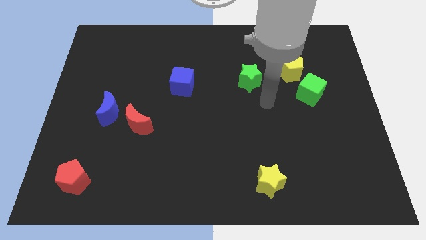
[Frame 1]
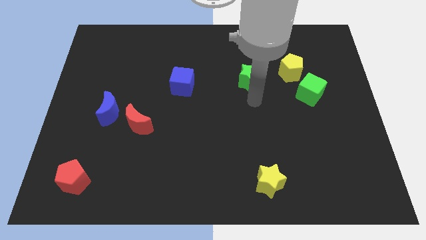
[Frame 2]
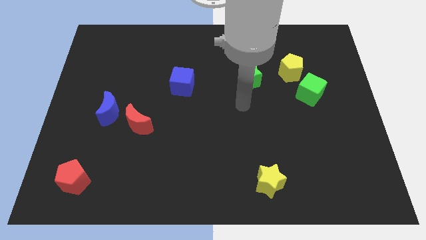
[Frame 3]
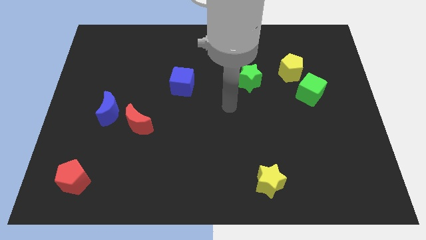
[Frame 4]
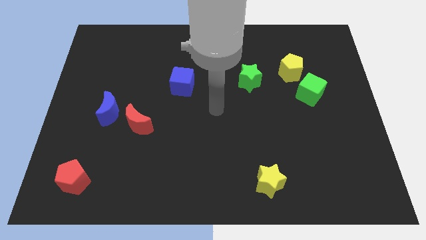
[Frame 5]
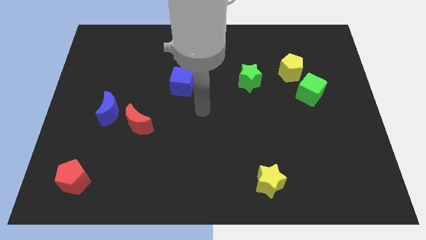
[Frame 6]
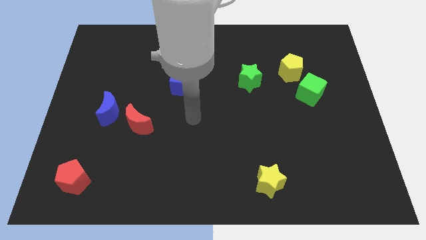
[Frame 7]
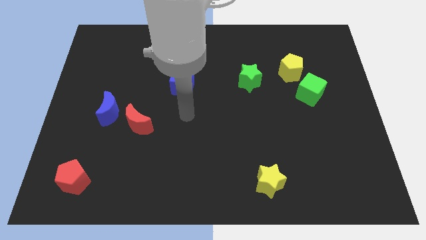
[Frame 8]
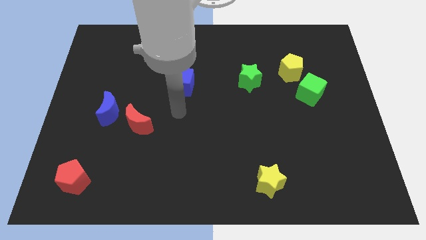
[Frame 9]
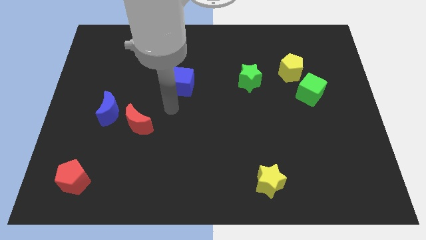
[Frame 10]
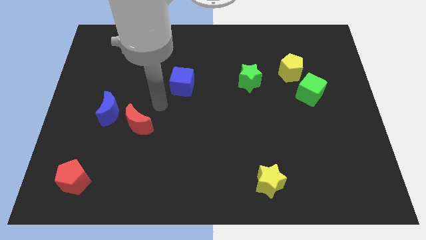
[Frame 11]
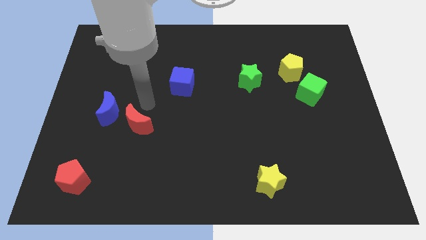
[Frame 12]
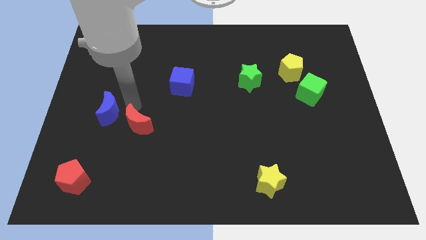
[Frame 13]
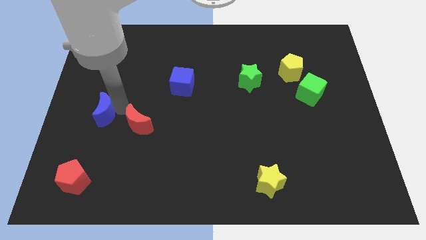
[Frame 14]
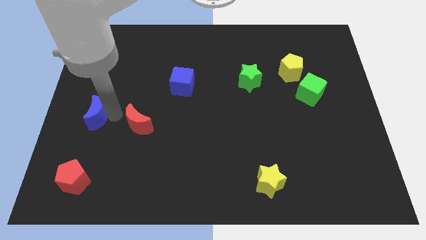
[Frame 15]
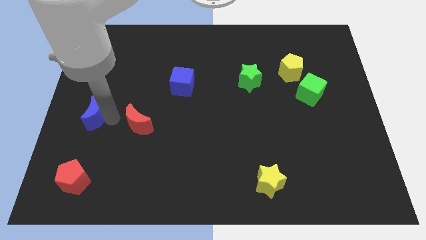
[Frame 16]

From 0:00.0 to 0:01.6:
move the red moon away from the blue moon

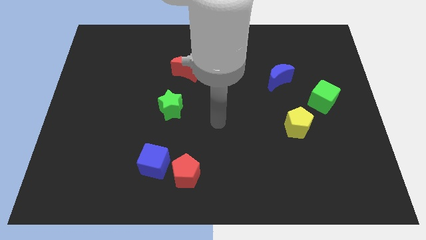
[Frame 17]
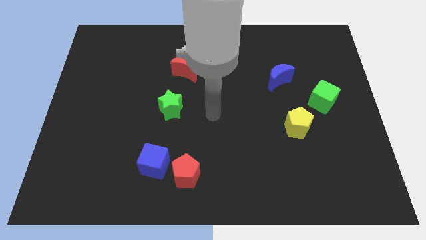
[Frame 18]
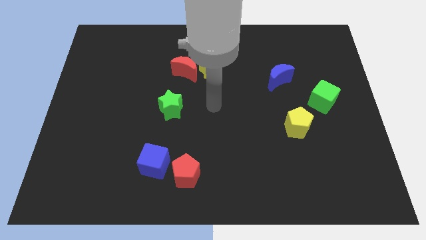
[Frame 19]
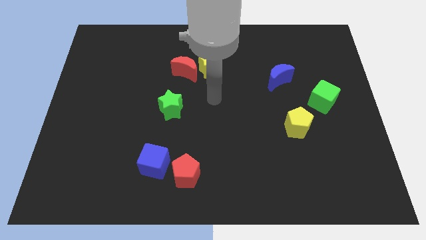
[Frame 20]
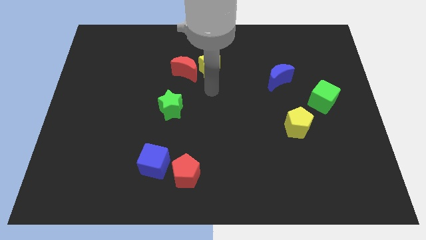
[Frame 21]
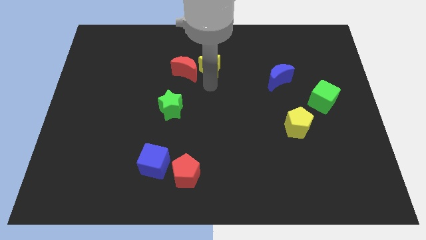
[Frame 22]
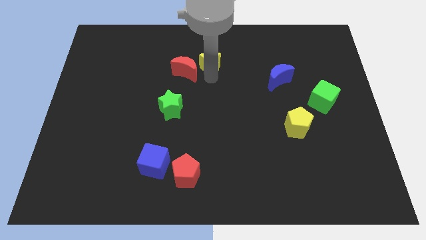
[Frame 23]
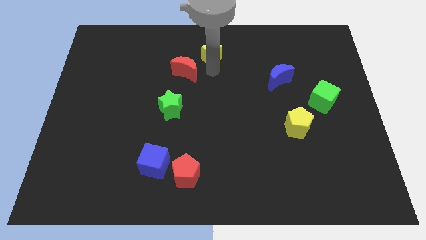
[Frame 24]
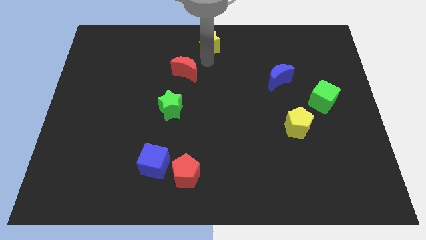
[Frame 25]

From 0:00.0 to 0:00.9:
move the red moon away from the yellow star

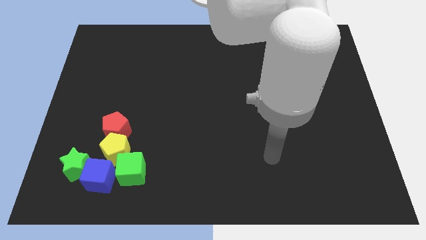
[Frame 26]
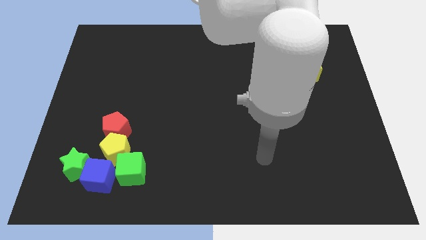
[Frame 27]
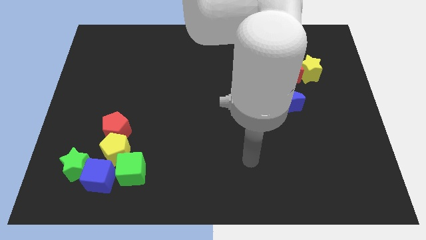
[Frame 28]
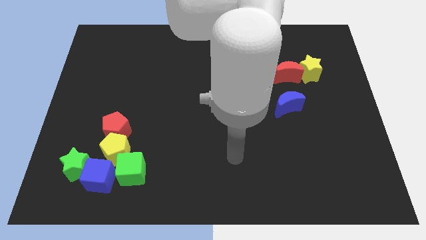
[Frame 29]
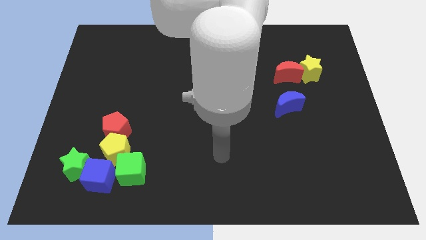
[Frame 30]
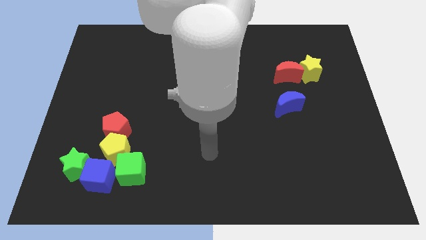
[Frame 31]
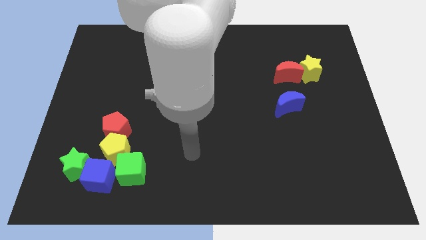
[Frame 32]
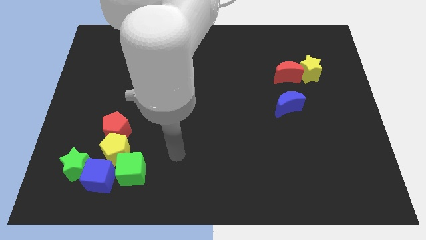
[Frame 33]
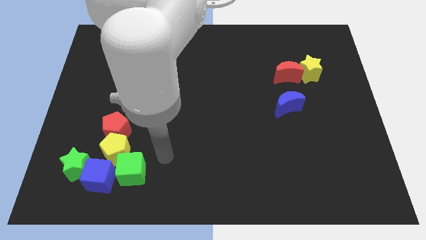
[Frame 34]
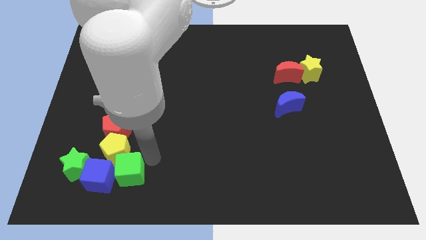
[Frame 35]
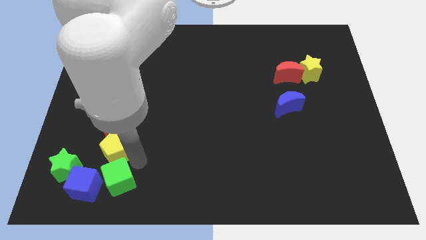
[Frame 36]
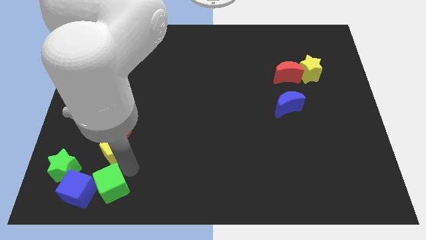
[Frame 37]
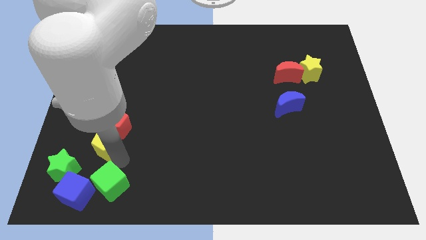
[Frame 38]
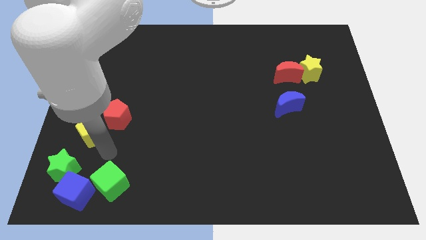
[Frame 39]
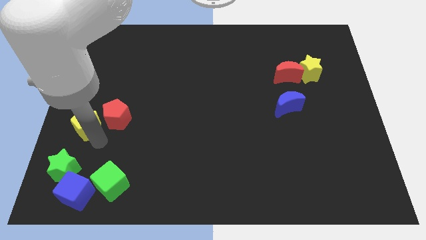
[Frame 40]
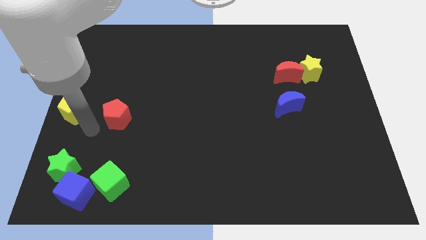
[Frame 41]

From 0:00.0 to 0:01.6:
pull the red pentagon apart from the yellow pentagon

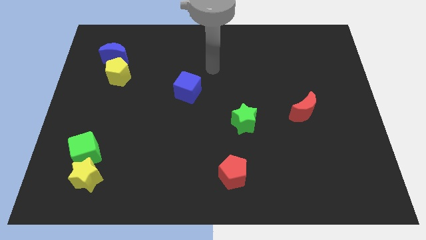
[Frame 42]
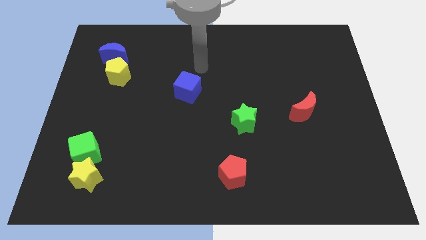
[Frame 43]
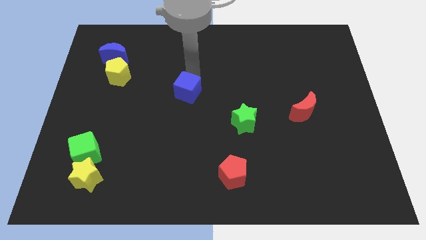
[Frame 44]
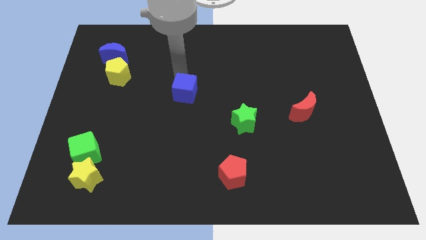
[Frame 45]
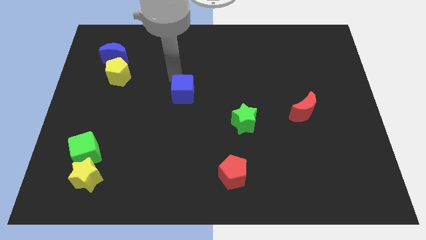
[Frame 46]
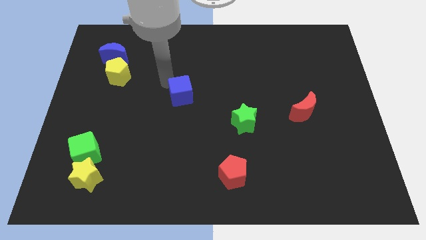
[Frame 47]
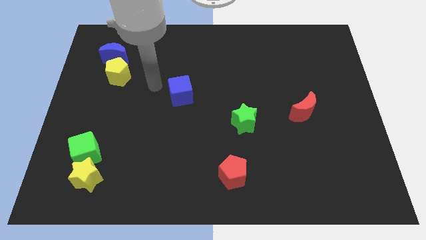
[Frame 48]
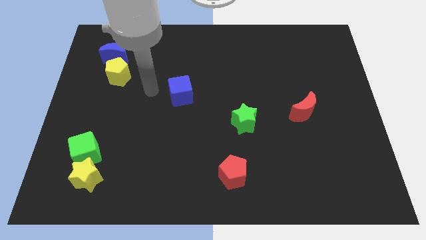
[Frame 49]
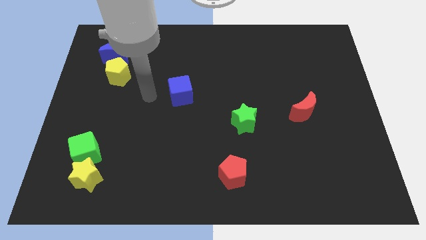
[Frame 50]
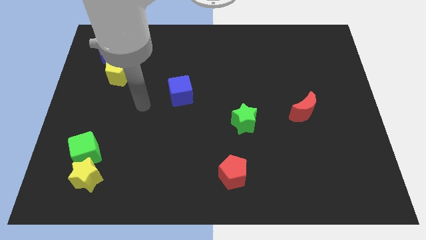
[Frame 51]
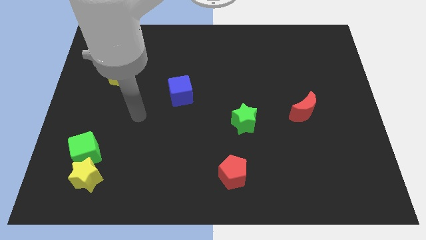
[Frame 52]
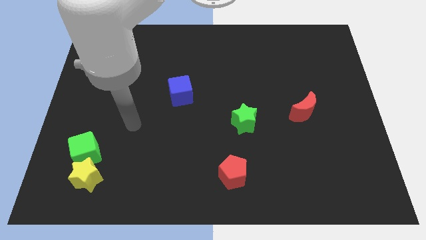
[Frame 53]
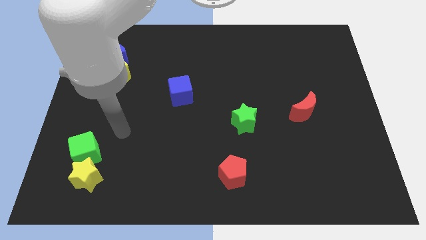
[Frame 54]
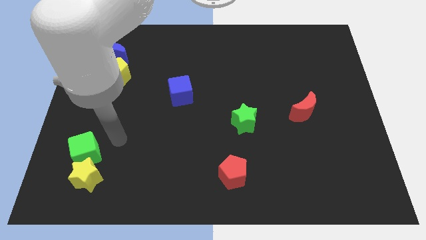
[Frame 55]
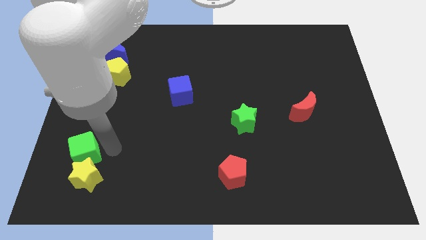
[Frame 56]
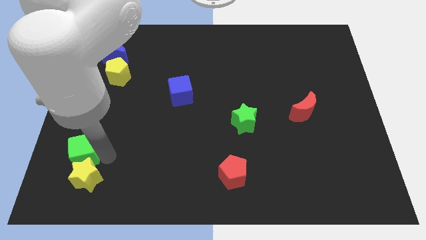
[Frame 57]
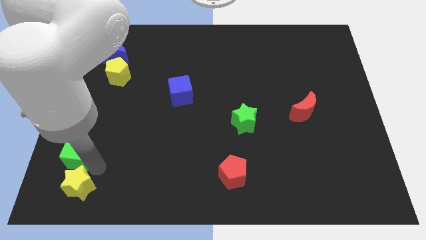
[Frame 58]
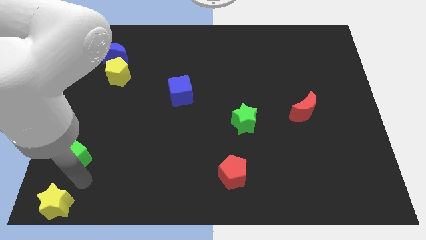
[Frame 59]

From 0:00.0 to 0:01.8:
separate the green cube from the yellow star

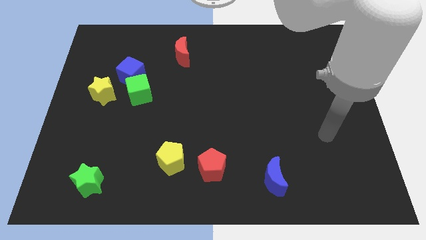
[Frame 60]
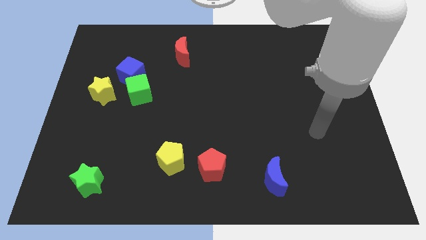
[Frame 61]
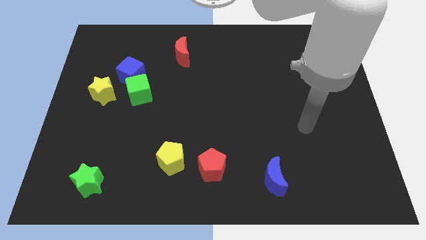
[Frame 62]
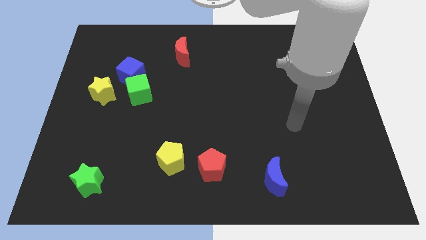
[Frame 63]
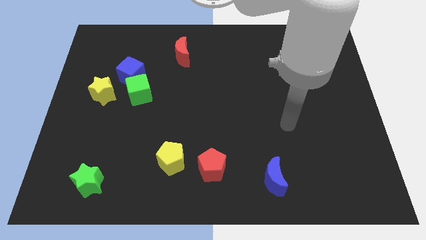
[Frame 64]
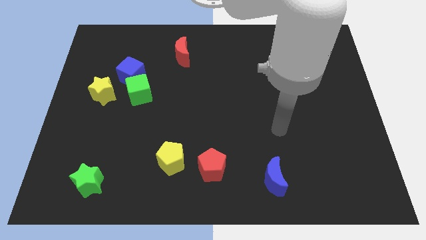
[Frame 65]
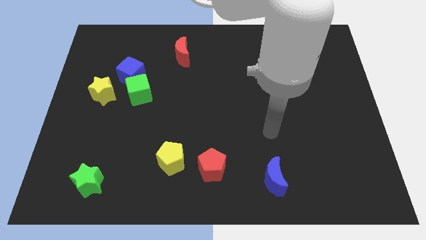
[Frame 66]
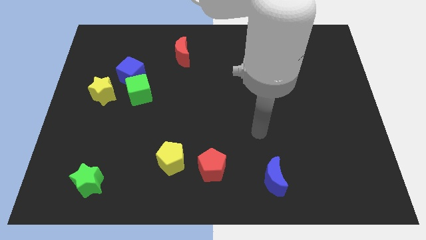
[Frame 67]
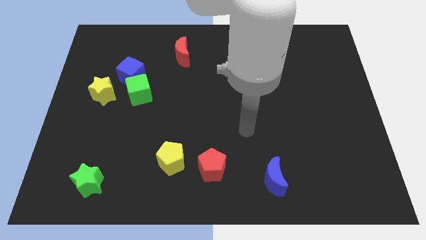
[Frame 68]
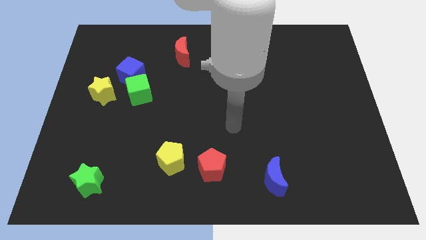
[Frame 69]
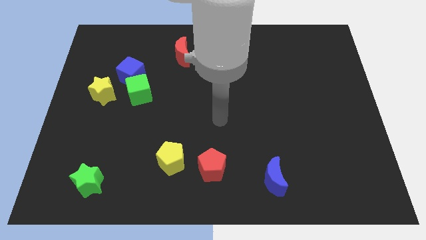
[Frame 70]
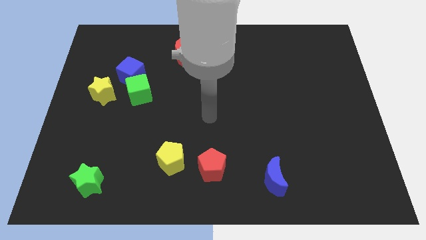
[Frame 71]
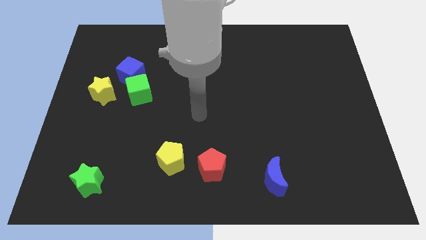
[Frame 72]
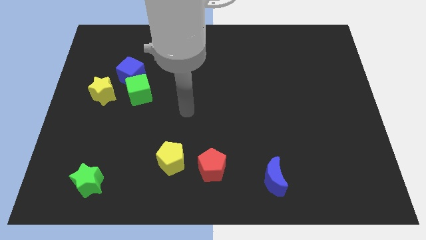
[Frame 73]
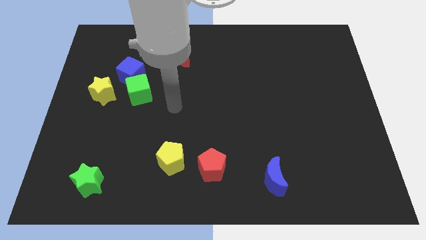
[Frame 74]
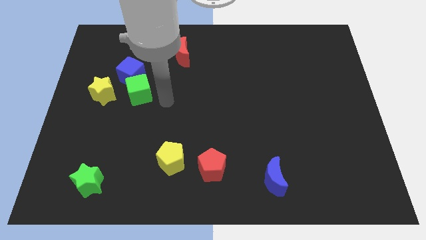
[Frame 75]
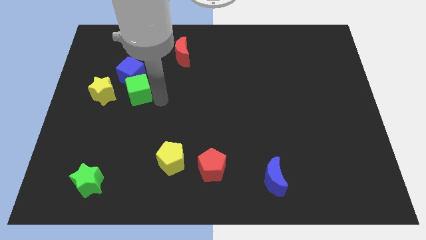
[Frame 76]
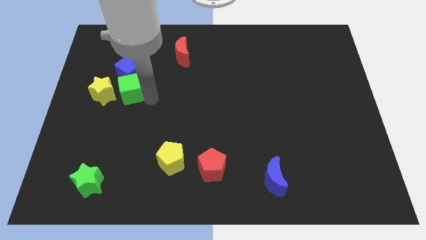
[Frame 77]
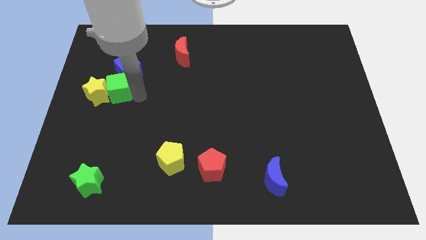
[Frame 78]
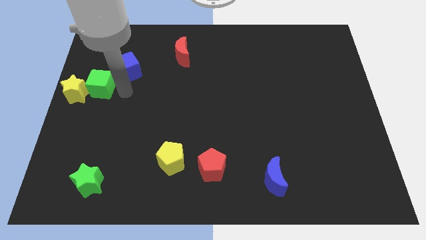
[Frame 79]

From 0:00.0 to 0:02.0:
move the blue cube away from the green cube and yellow star

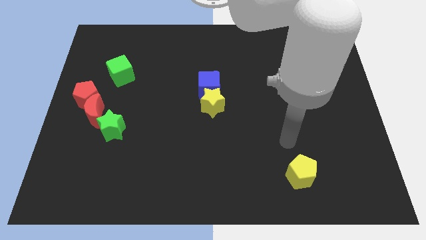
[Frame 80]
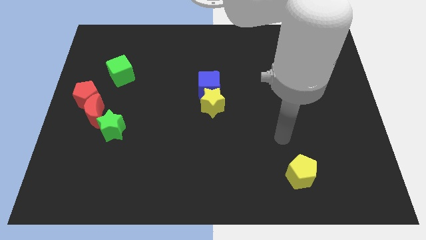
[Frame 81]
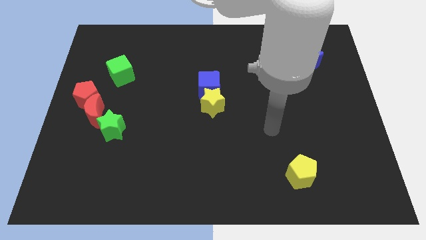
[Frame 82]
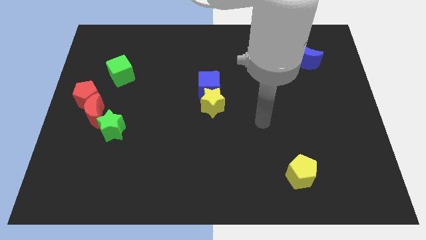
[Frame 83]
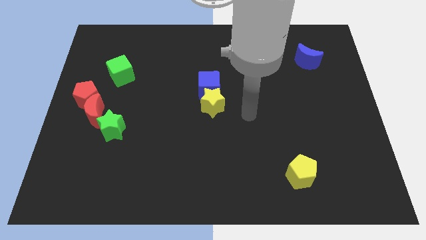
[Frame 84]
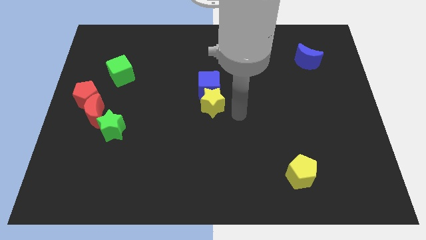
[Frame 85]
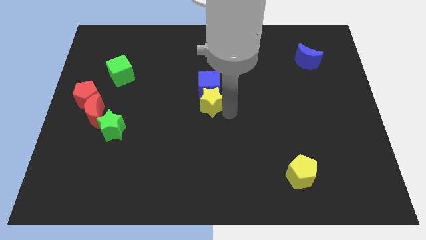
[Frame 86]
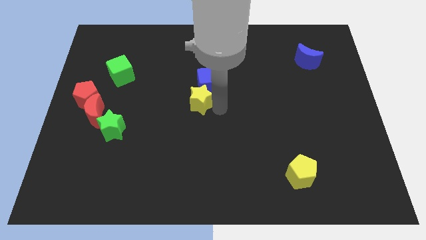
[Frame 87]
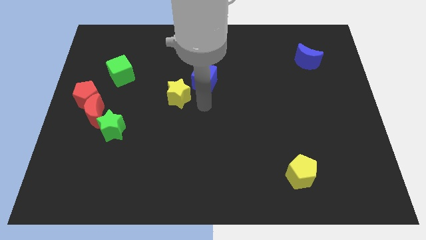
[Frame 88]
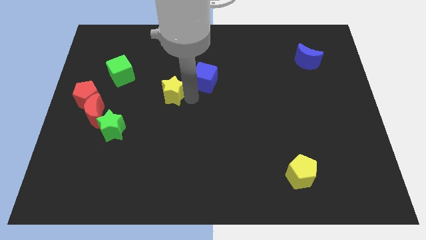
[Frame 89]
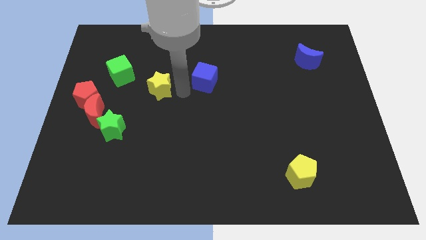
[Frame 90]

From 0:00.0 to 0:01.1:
separate the blue cube from the yellow star

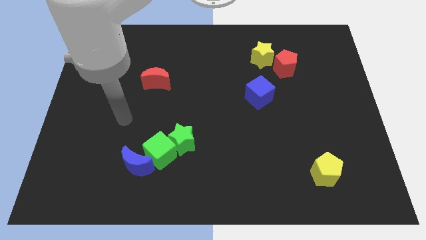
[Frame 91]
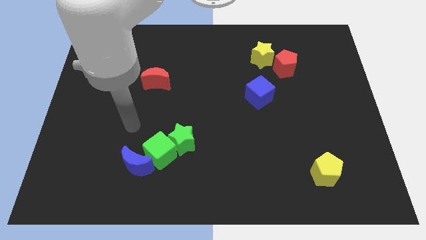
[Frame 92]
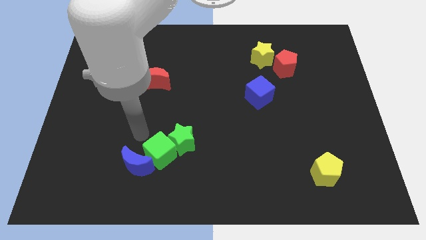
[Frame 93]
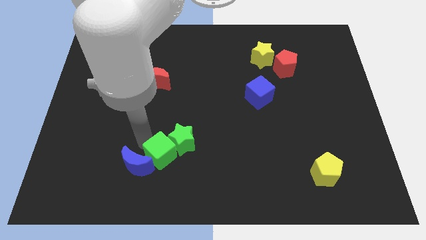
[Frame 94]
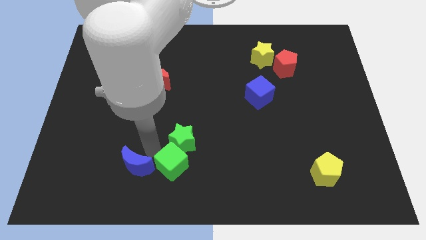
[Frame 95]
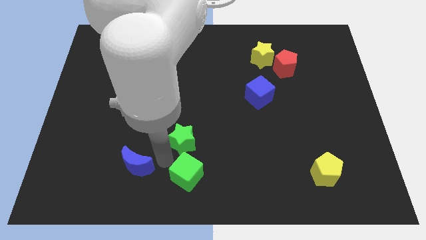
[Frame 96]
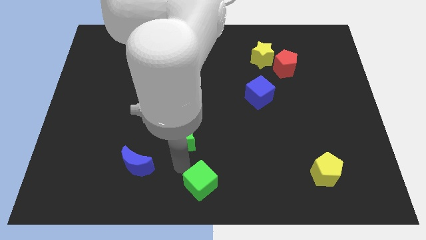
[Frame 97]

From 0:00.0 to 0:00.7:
move the green star away from the green cube
